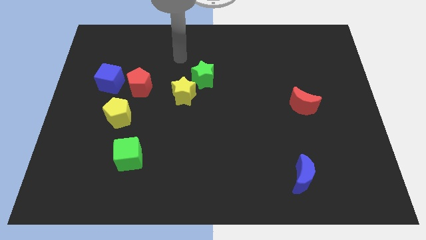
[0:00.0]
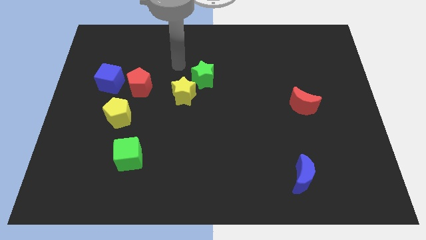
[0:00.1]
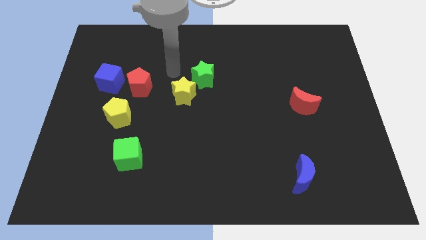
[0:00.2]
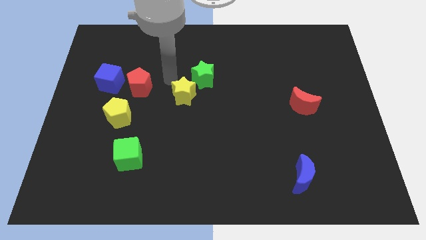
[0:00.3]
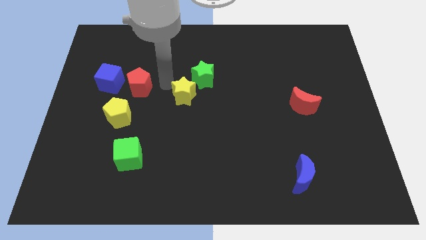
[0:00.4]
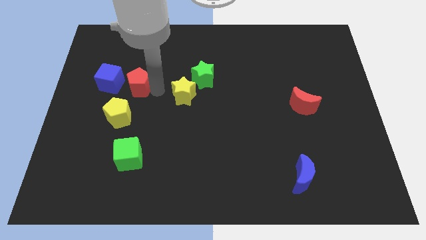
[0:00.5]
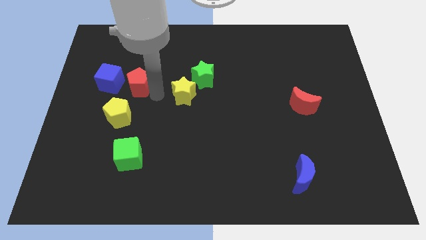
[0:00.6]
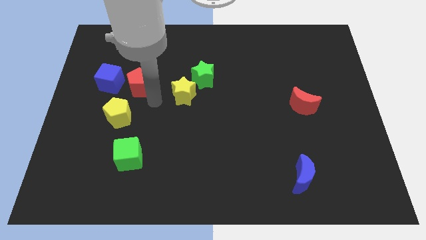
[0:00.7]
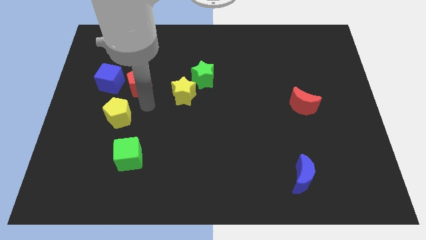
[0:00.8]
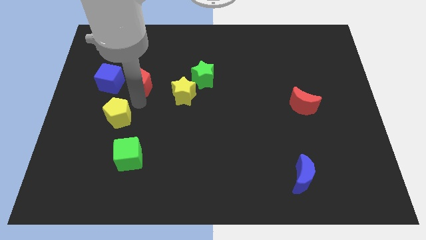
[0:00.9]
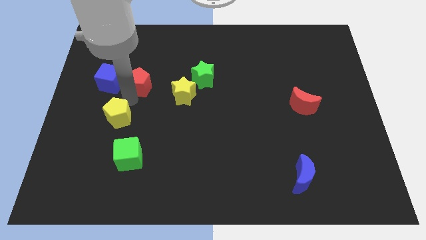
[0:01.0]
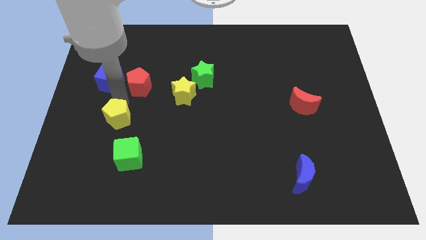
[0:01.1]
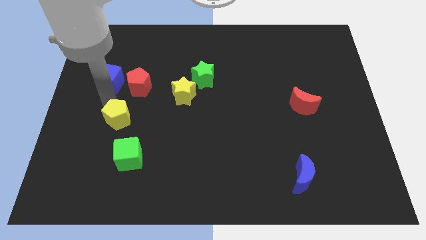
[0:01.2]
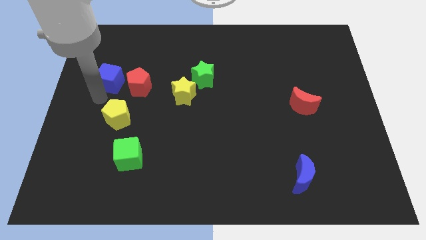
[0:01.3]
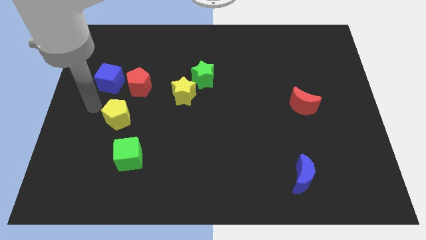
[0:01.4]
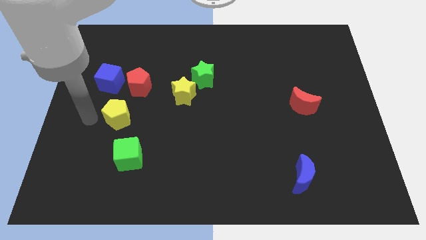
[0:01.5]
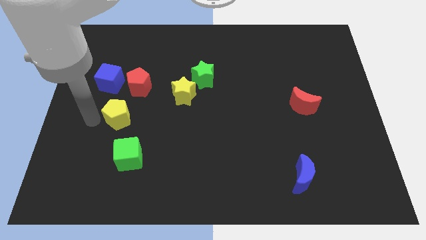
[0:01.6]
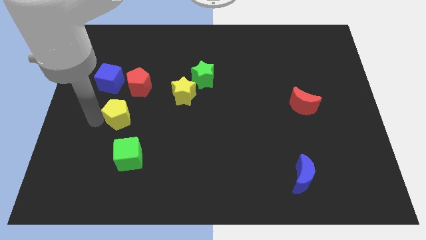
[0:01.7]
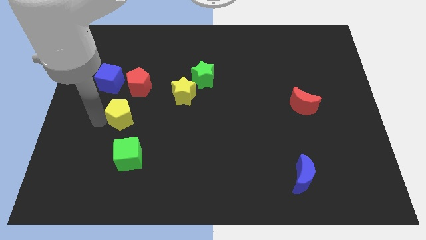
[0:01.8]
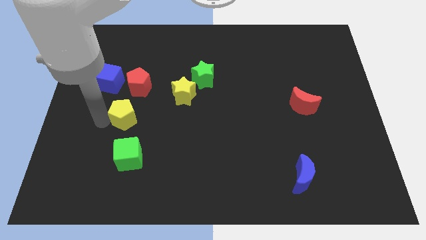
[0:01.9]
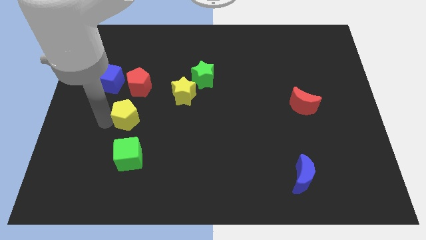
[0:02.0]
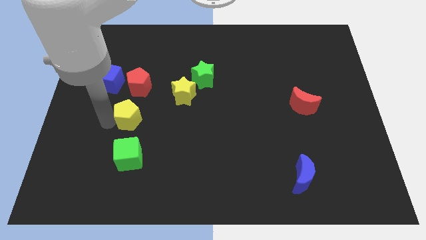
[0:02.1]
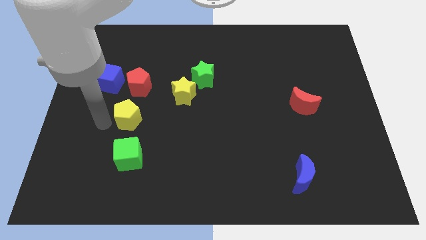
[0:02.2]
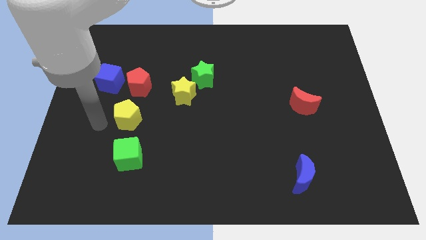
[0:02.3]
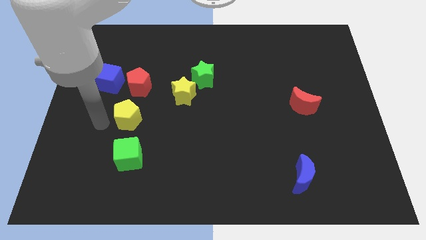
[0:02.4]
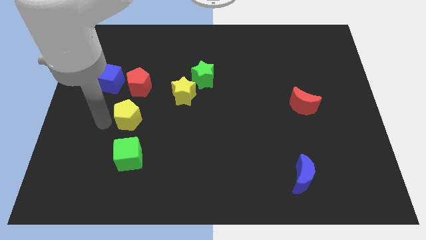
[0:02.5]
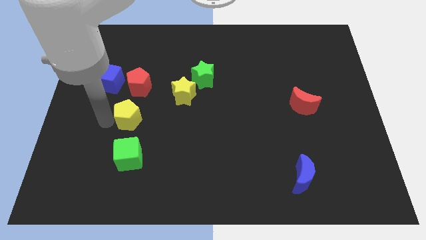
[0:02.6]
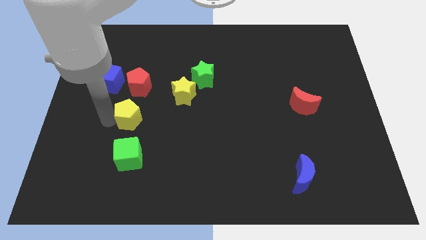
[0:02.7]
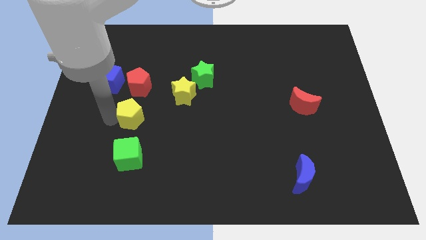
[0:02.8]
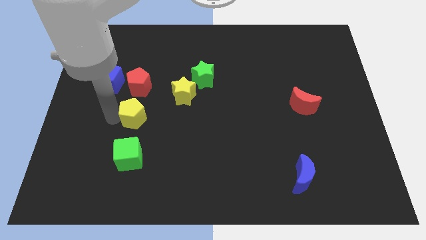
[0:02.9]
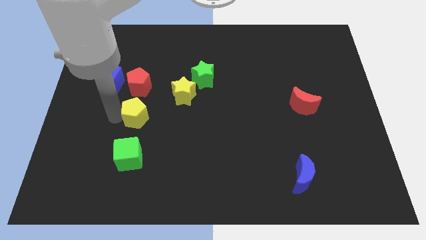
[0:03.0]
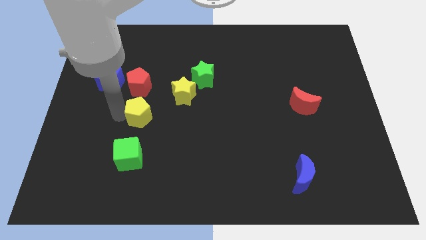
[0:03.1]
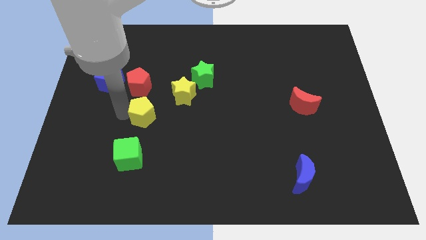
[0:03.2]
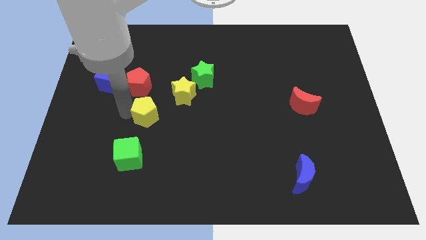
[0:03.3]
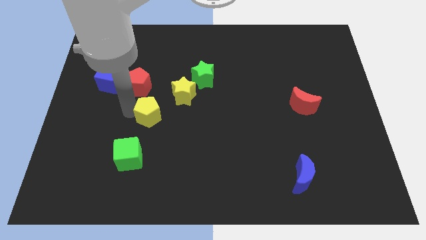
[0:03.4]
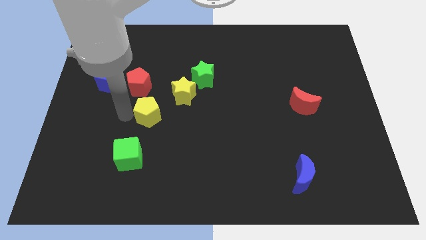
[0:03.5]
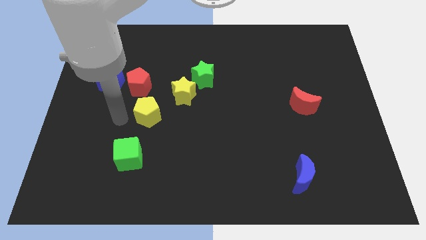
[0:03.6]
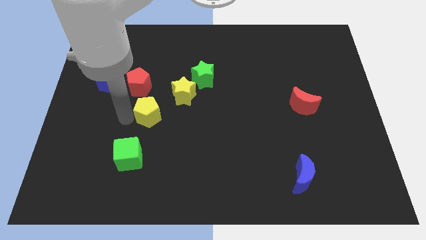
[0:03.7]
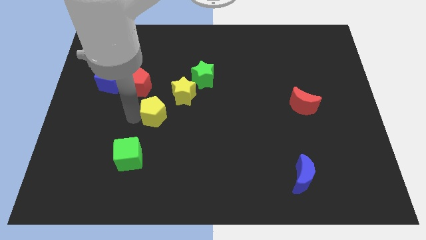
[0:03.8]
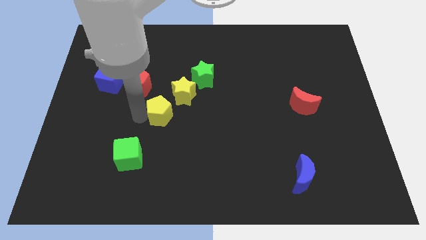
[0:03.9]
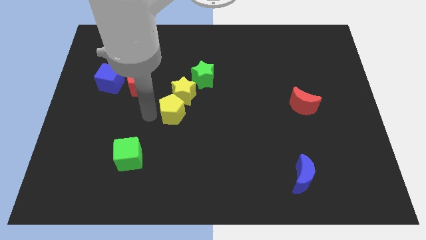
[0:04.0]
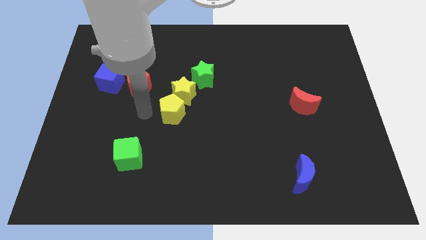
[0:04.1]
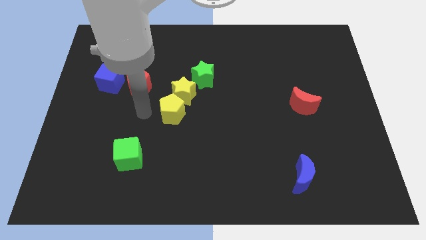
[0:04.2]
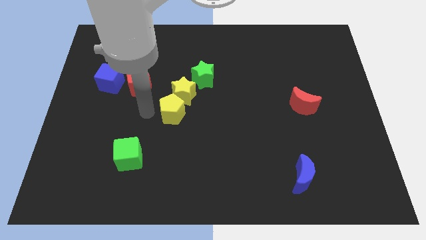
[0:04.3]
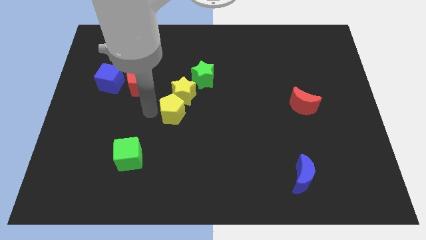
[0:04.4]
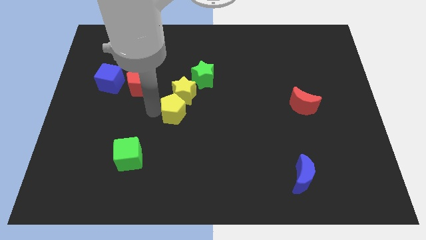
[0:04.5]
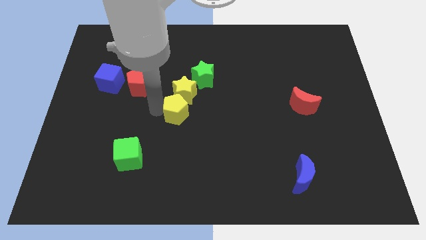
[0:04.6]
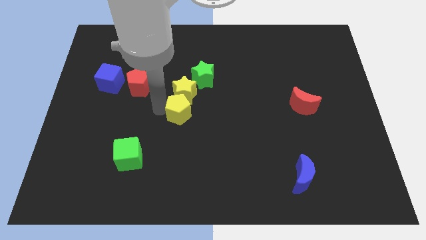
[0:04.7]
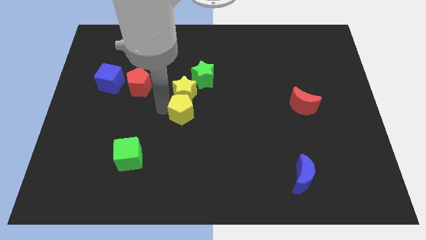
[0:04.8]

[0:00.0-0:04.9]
move the yellow pentagon to the bottom side of the green star

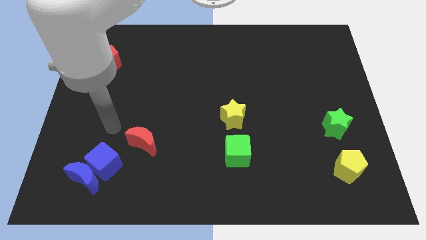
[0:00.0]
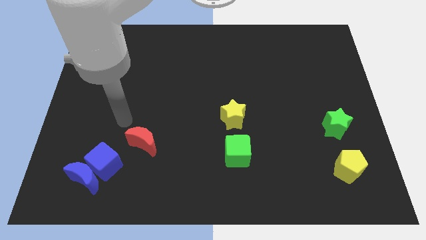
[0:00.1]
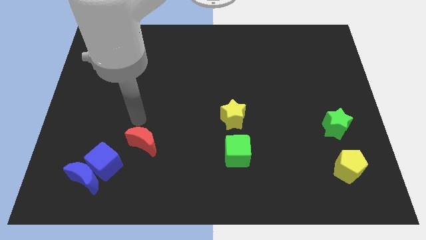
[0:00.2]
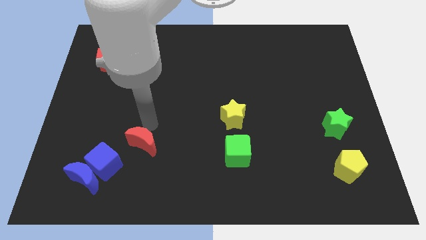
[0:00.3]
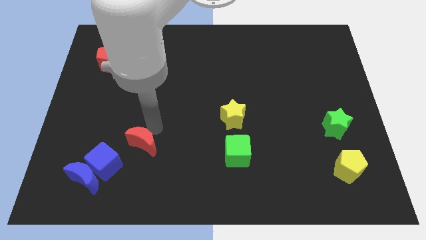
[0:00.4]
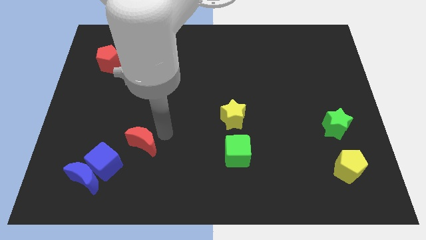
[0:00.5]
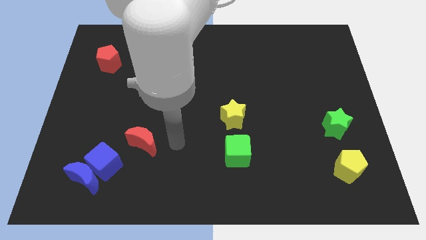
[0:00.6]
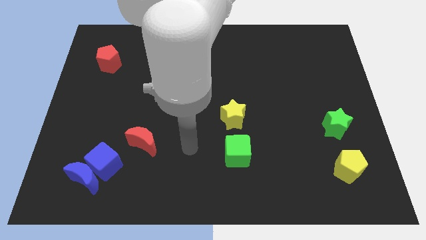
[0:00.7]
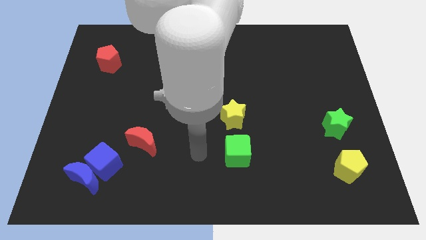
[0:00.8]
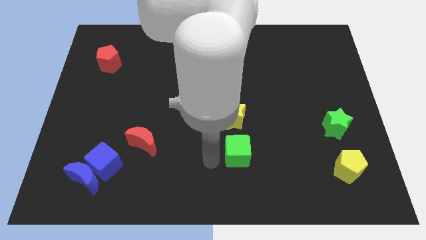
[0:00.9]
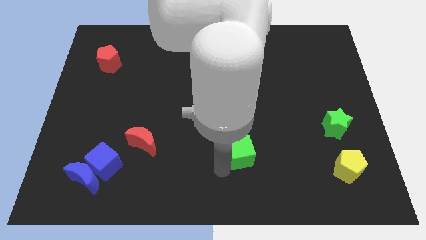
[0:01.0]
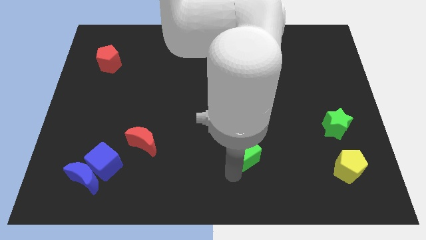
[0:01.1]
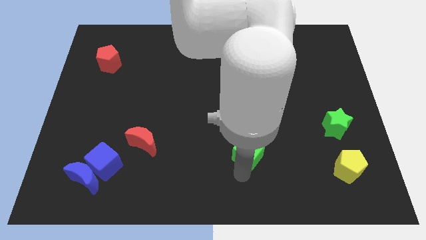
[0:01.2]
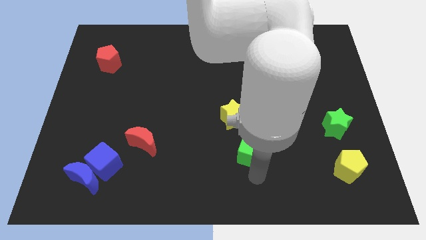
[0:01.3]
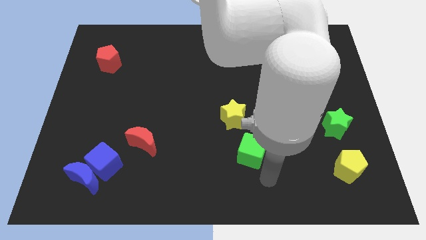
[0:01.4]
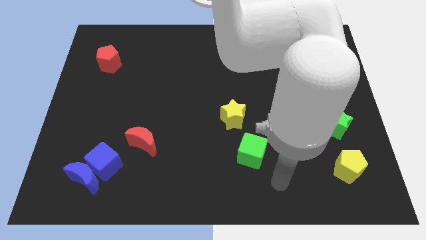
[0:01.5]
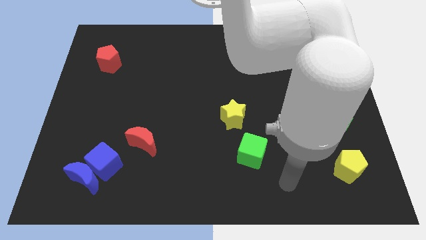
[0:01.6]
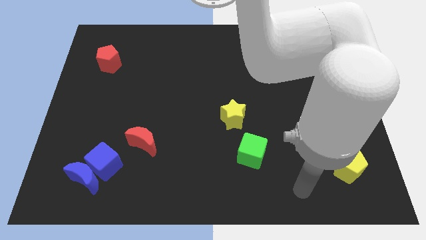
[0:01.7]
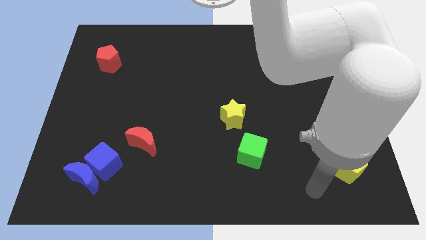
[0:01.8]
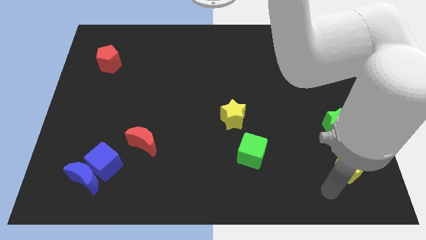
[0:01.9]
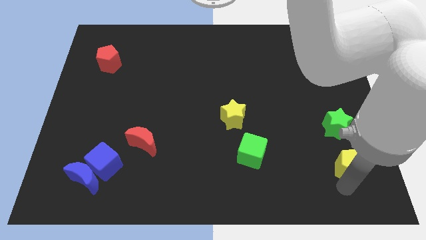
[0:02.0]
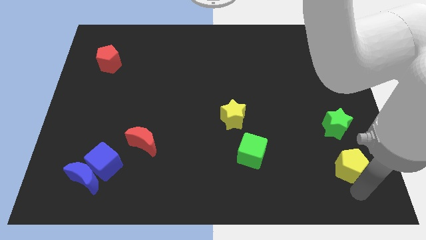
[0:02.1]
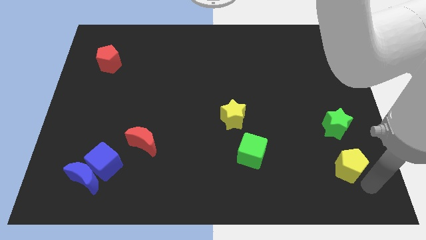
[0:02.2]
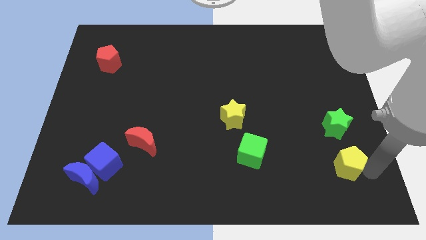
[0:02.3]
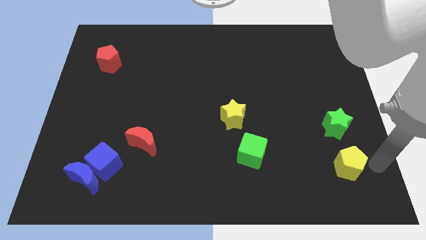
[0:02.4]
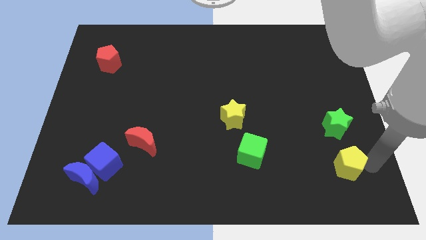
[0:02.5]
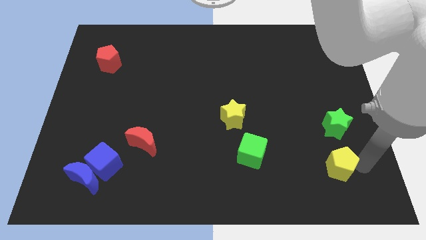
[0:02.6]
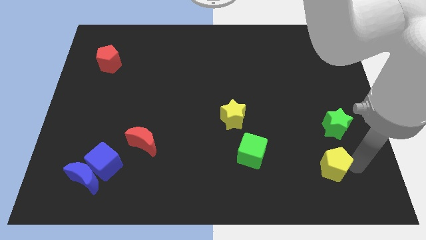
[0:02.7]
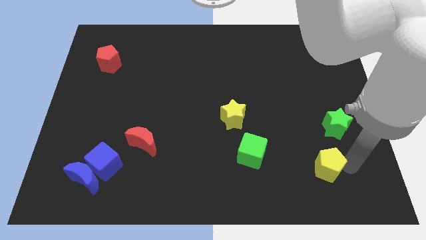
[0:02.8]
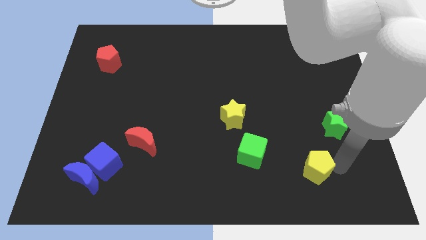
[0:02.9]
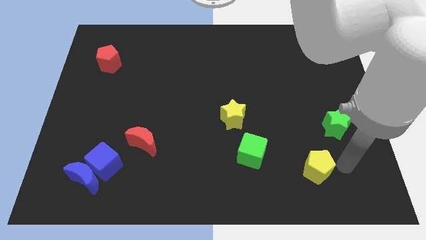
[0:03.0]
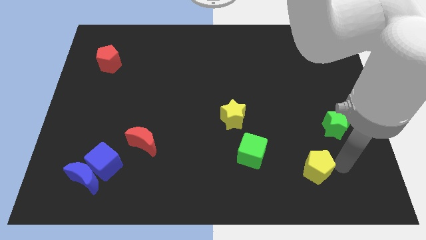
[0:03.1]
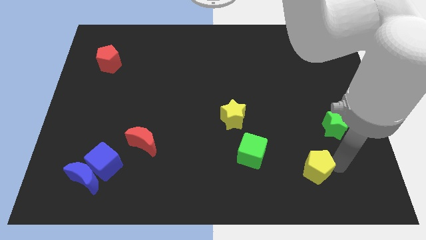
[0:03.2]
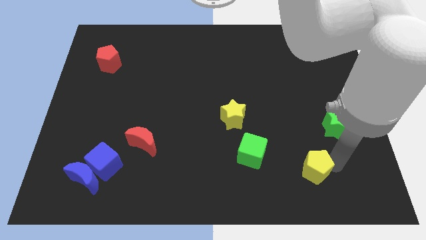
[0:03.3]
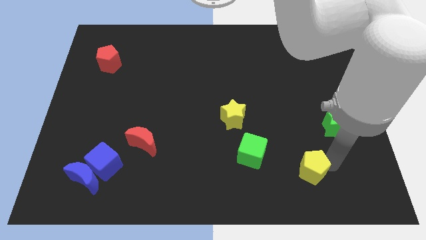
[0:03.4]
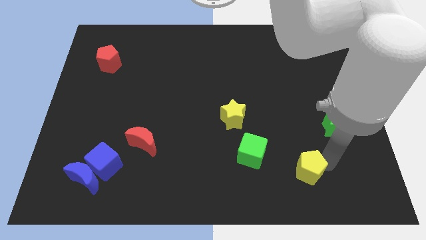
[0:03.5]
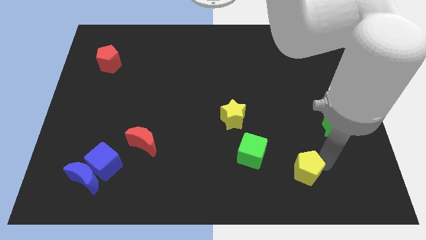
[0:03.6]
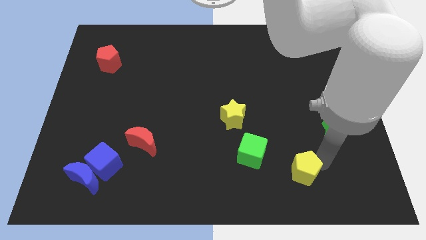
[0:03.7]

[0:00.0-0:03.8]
put the yellow pentagon to the bottom right of the green cube
